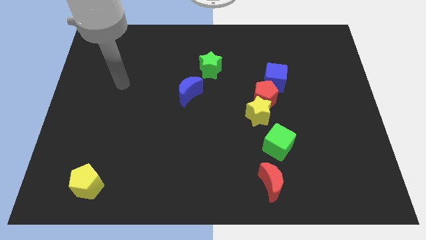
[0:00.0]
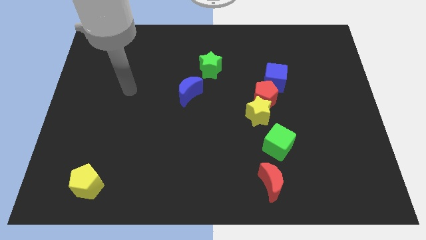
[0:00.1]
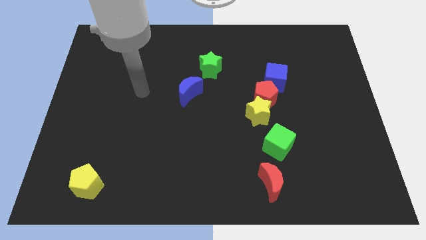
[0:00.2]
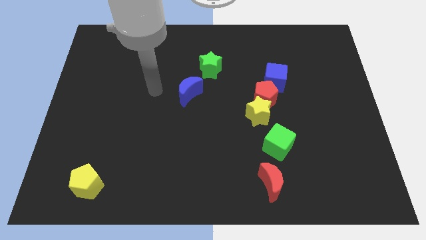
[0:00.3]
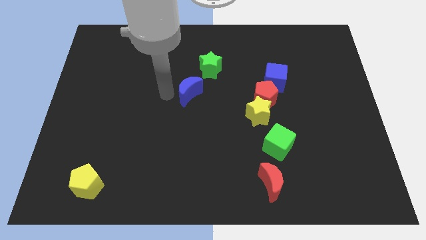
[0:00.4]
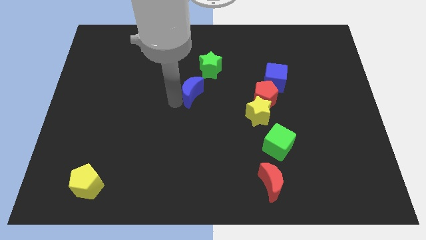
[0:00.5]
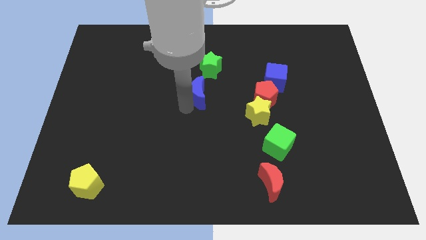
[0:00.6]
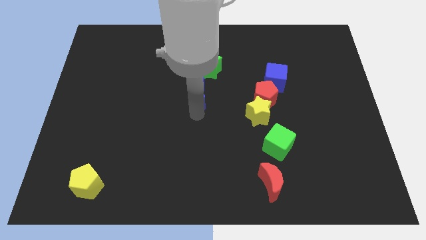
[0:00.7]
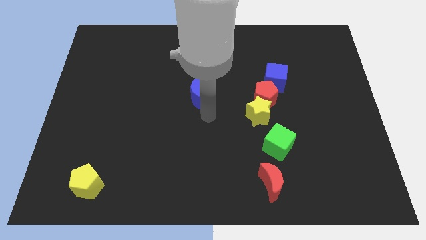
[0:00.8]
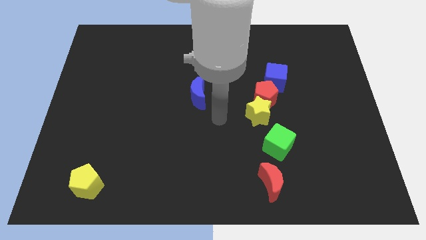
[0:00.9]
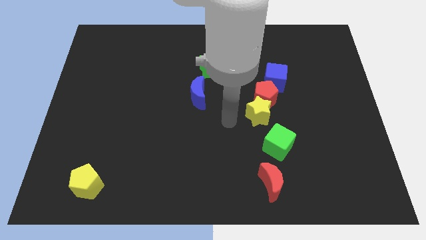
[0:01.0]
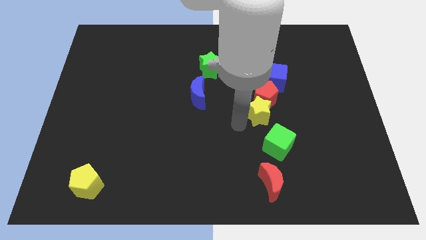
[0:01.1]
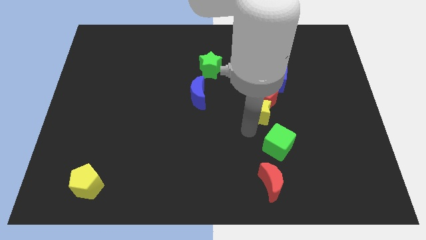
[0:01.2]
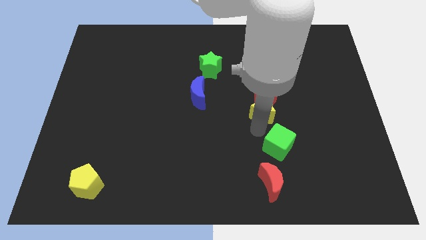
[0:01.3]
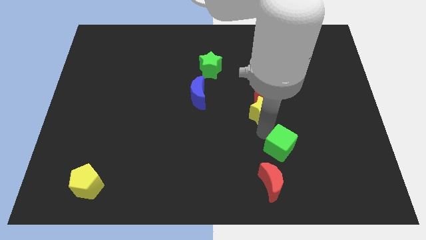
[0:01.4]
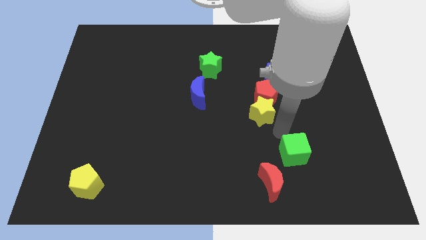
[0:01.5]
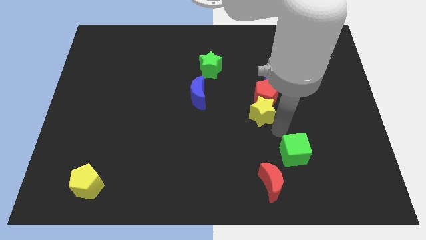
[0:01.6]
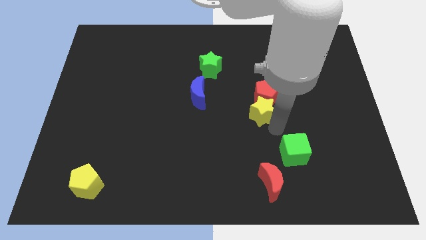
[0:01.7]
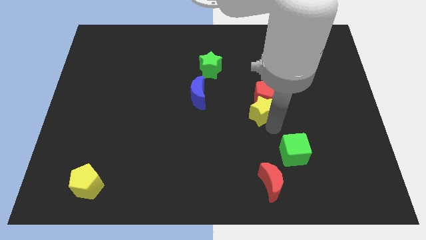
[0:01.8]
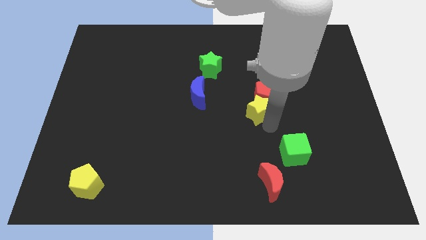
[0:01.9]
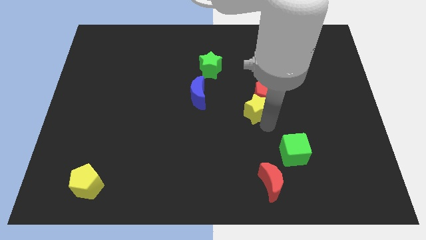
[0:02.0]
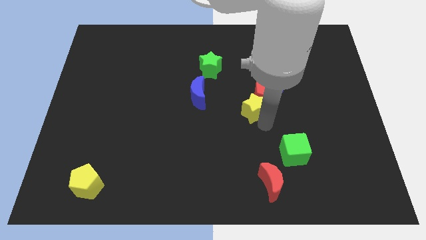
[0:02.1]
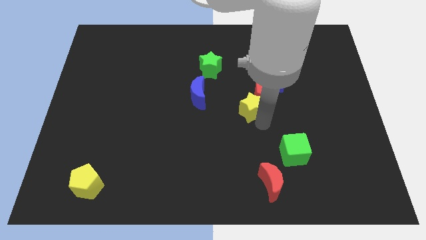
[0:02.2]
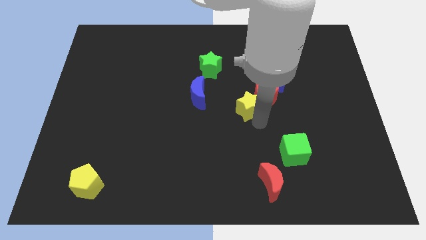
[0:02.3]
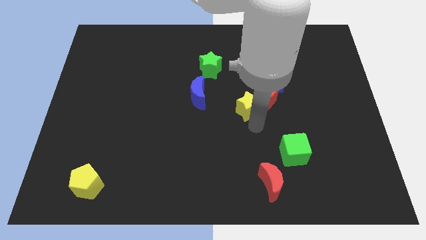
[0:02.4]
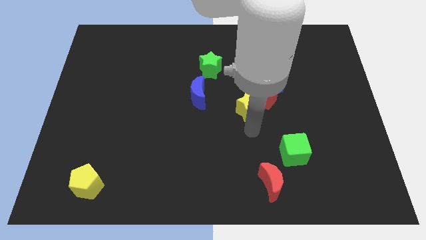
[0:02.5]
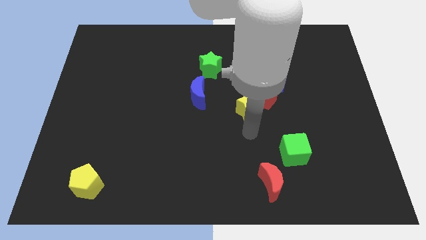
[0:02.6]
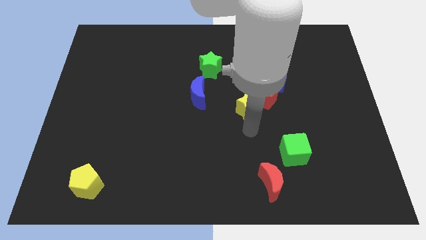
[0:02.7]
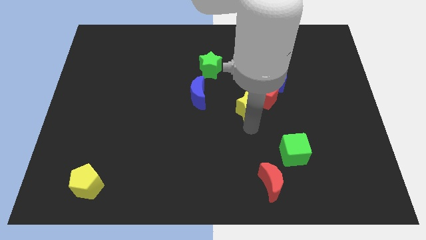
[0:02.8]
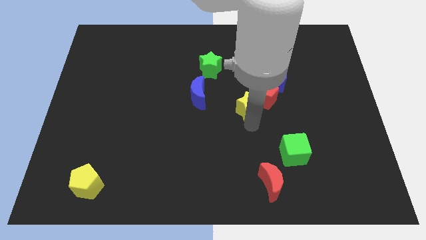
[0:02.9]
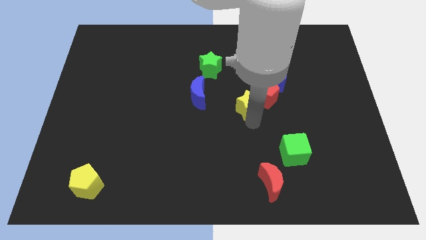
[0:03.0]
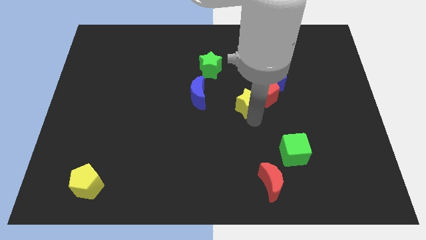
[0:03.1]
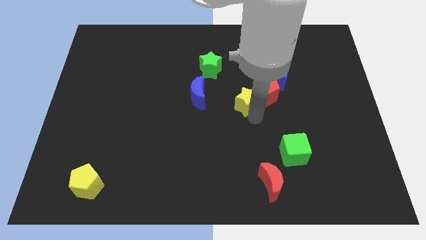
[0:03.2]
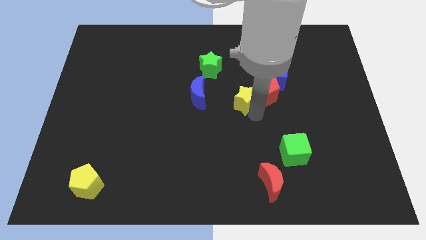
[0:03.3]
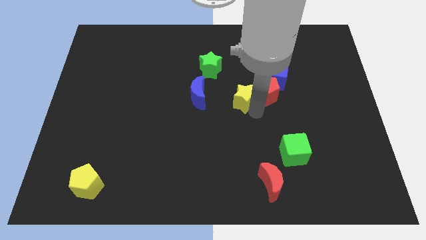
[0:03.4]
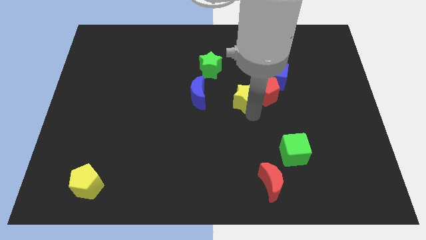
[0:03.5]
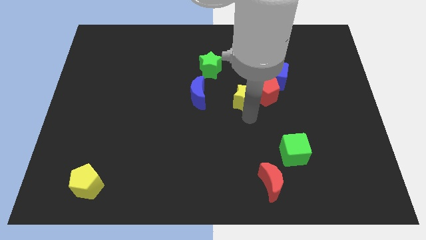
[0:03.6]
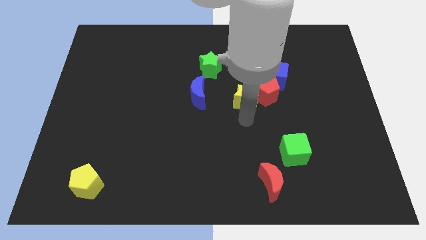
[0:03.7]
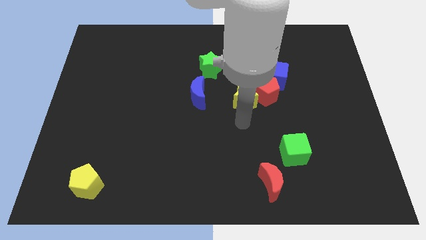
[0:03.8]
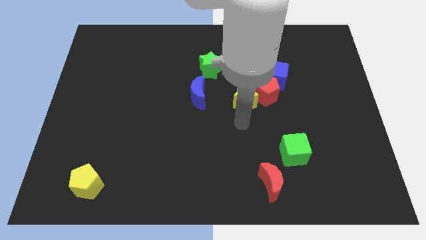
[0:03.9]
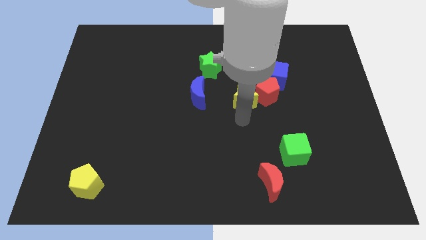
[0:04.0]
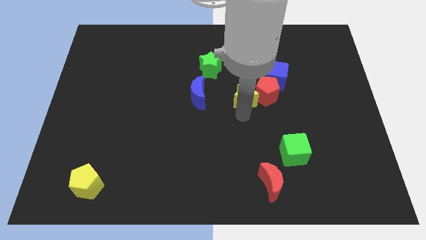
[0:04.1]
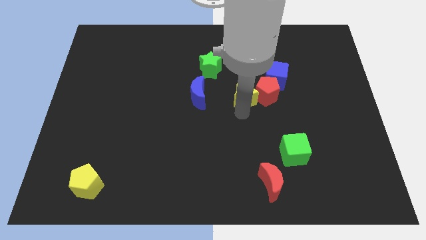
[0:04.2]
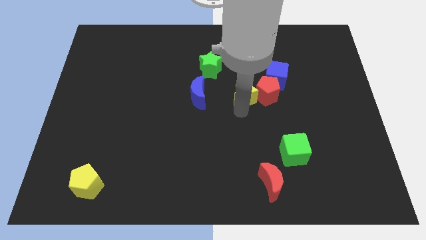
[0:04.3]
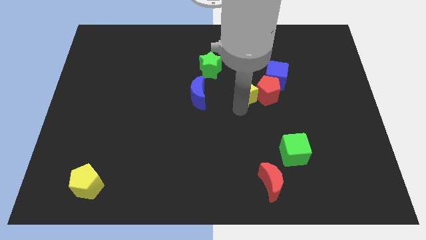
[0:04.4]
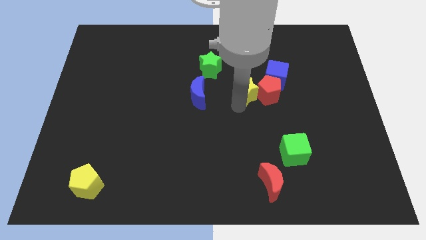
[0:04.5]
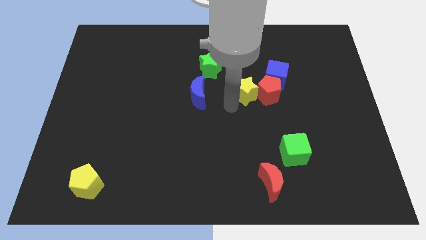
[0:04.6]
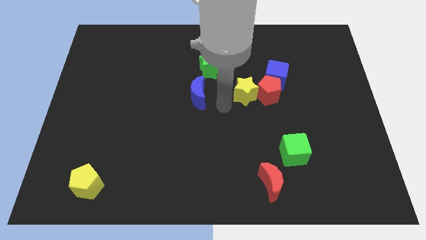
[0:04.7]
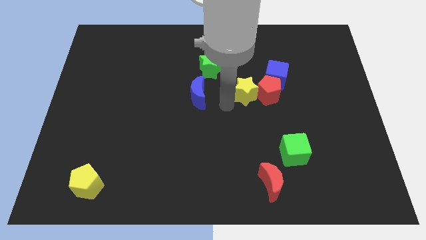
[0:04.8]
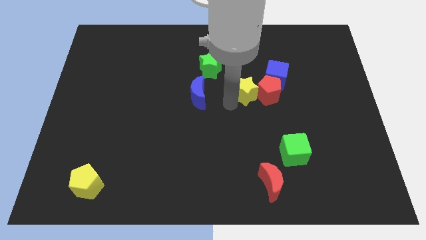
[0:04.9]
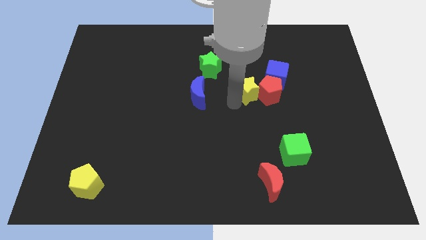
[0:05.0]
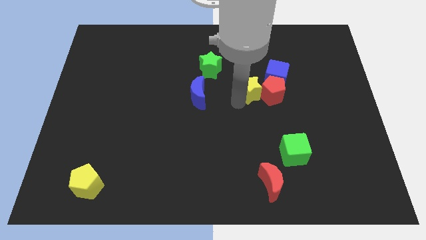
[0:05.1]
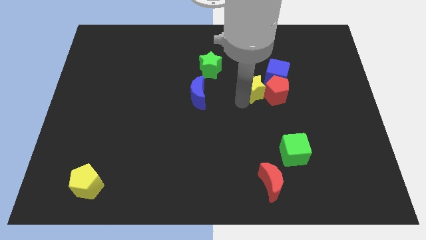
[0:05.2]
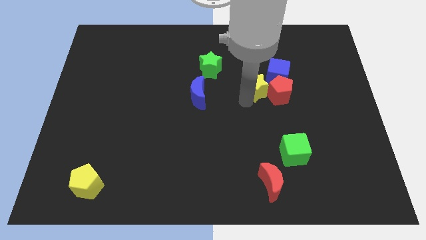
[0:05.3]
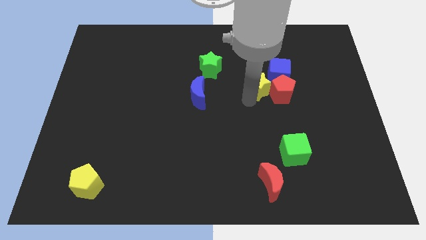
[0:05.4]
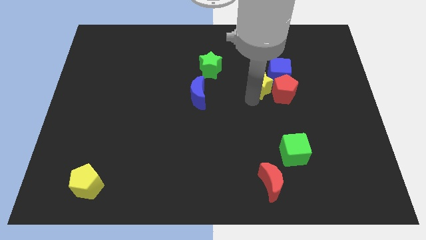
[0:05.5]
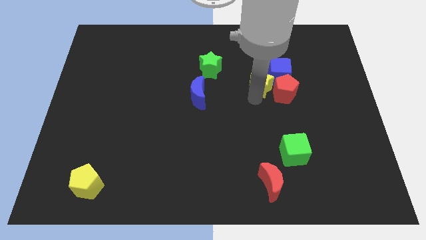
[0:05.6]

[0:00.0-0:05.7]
slide the yellow star to the blue cube
